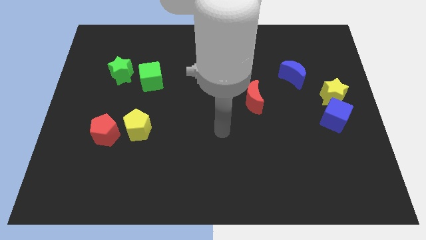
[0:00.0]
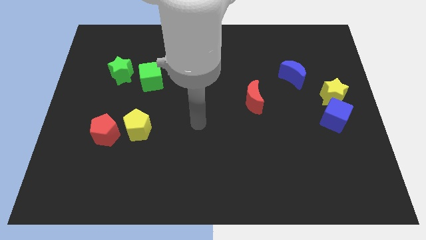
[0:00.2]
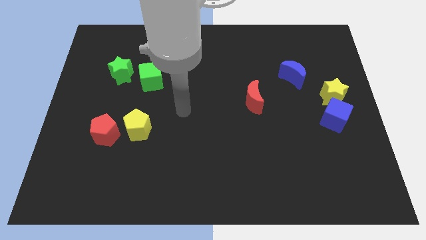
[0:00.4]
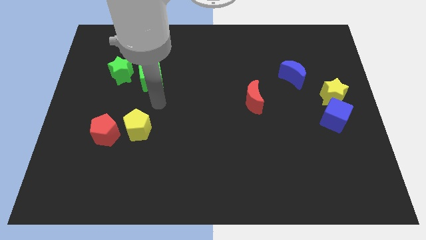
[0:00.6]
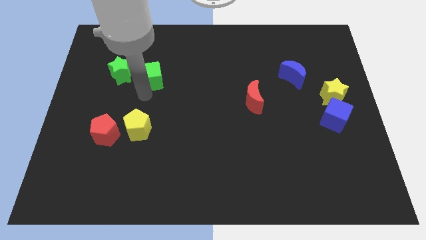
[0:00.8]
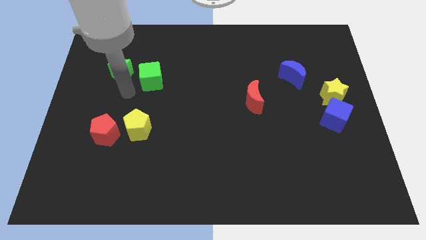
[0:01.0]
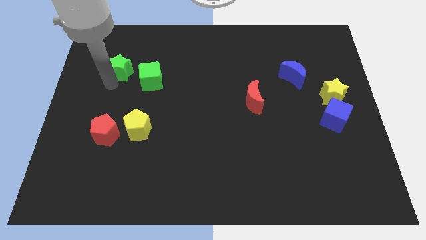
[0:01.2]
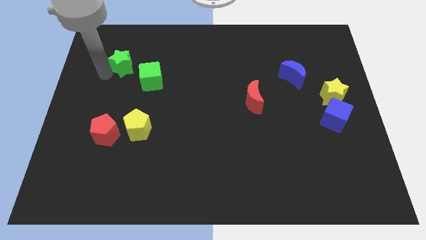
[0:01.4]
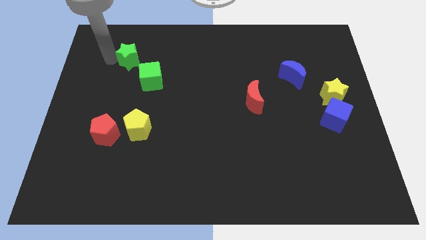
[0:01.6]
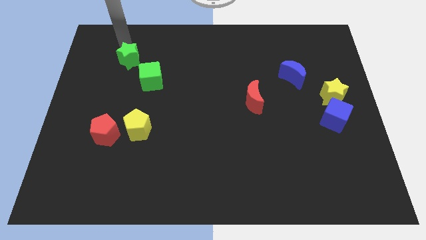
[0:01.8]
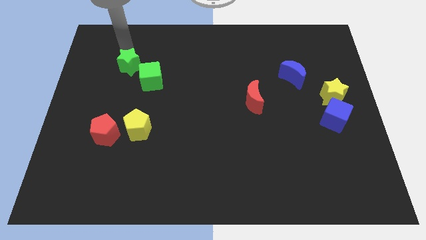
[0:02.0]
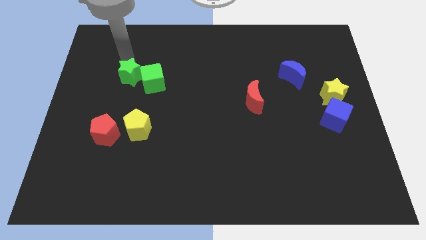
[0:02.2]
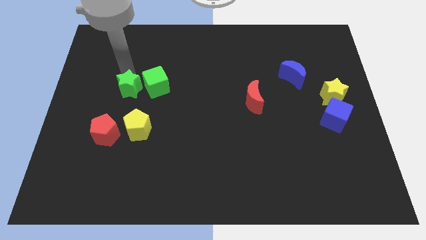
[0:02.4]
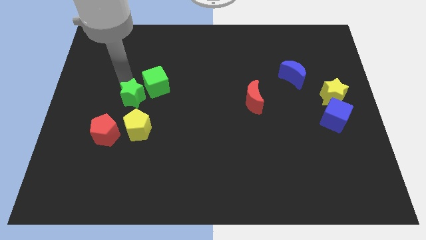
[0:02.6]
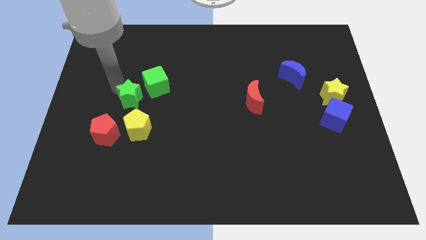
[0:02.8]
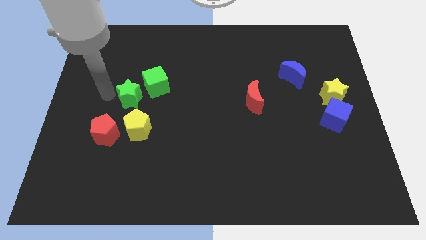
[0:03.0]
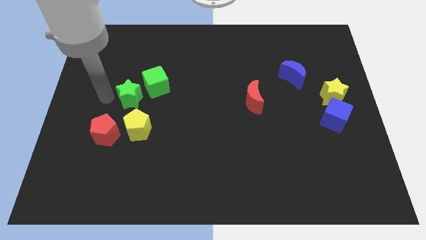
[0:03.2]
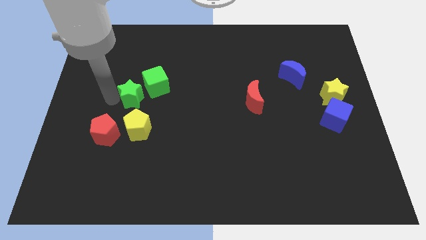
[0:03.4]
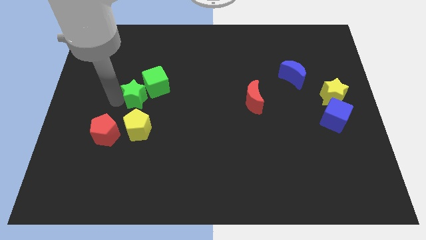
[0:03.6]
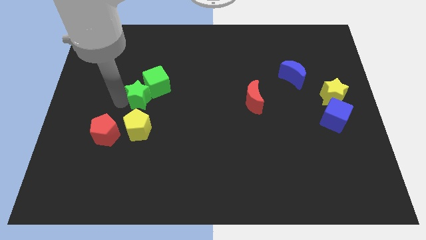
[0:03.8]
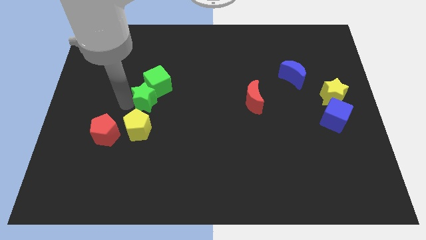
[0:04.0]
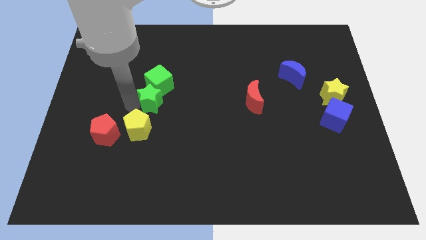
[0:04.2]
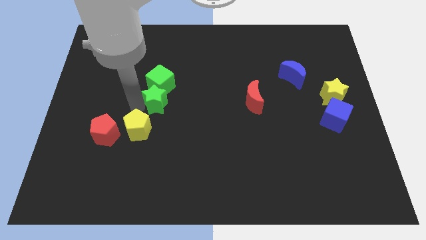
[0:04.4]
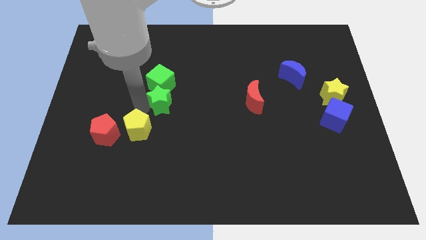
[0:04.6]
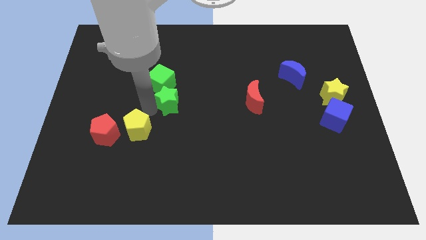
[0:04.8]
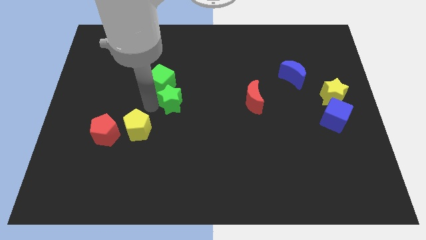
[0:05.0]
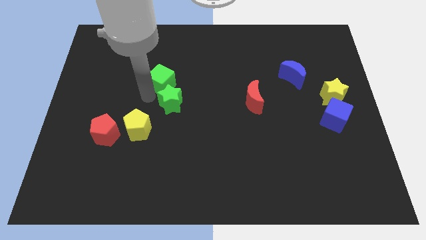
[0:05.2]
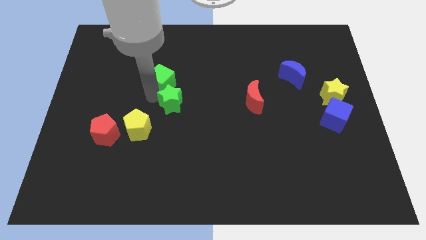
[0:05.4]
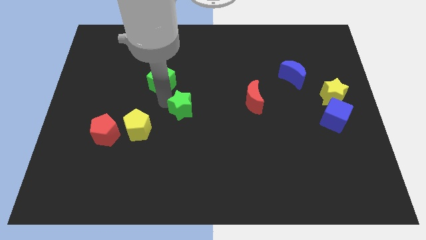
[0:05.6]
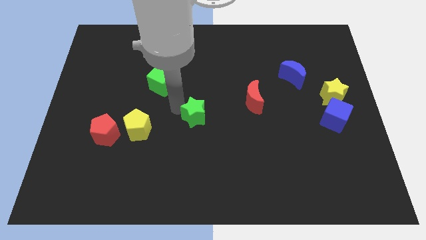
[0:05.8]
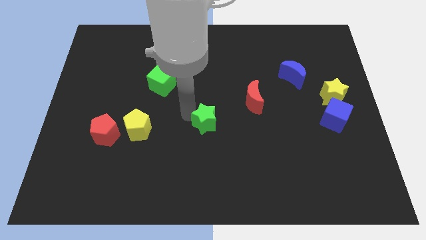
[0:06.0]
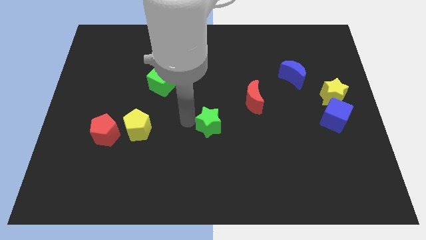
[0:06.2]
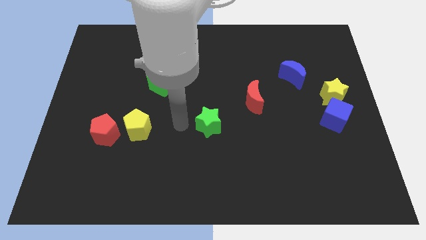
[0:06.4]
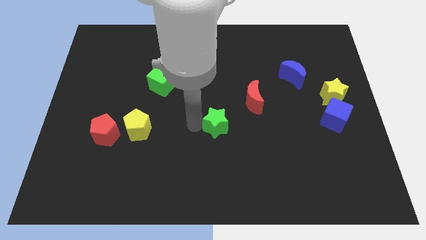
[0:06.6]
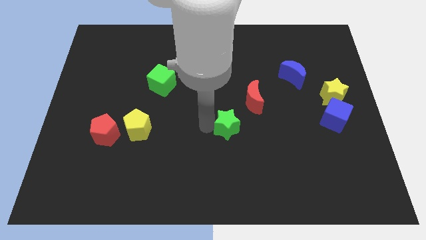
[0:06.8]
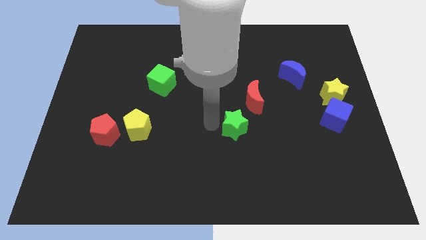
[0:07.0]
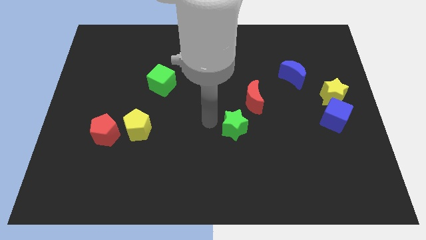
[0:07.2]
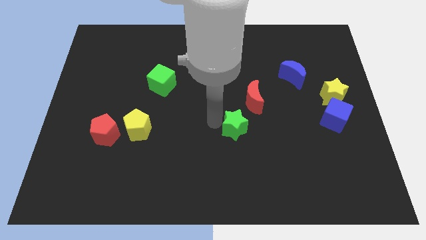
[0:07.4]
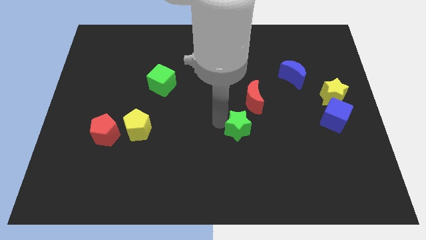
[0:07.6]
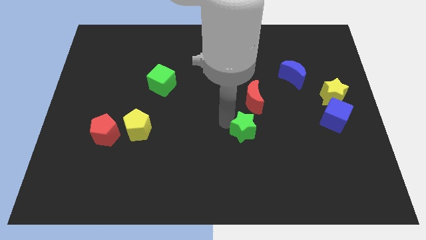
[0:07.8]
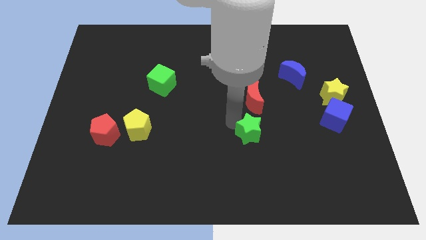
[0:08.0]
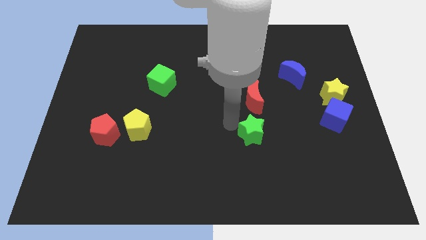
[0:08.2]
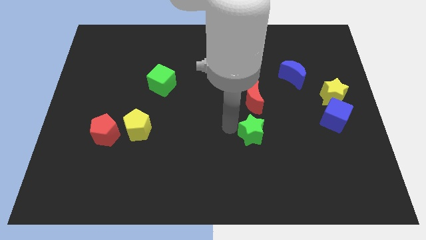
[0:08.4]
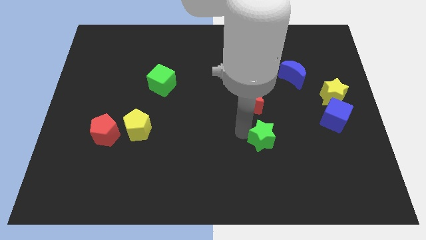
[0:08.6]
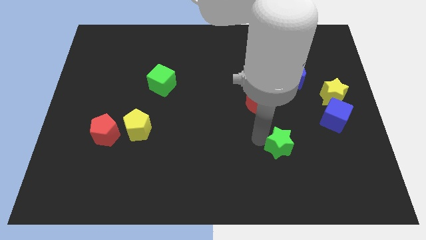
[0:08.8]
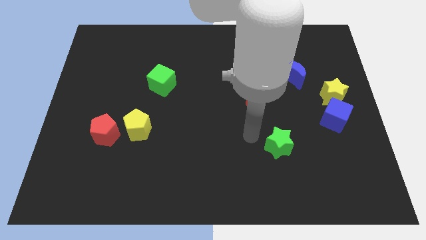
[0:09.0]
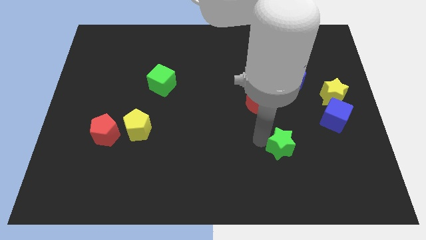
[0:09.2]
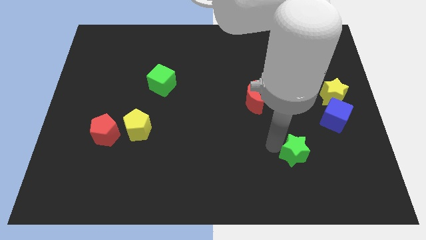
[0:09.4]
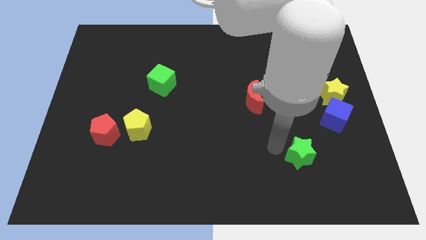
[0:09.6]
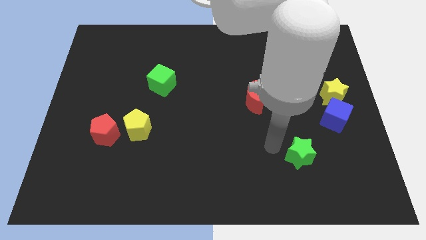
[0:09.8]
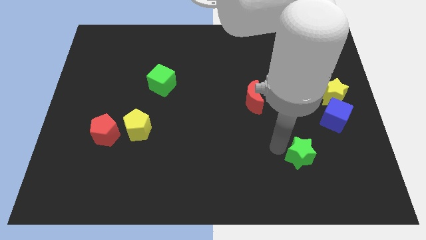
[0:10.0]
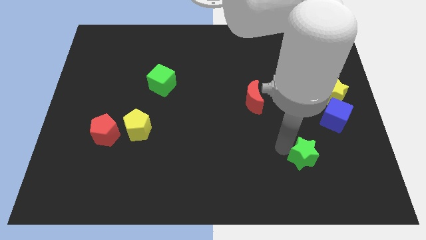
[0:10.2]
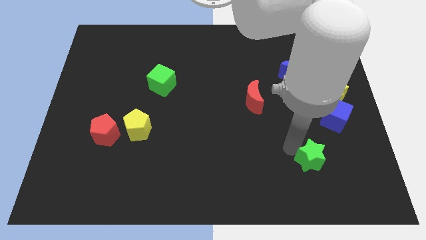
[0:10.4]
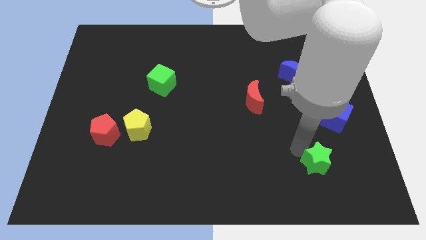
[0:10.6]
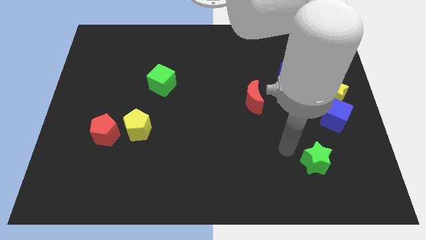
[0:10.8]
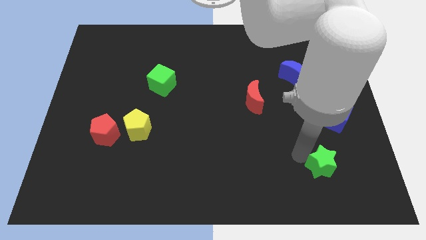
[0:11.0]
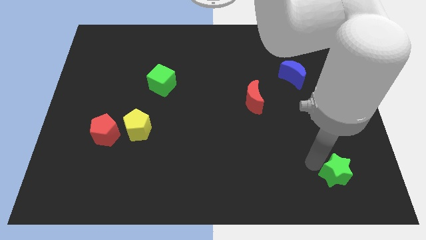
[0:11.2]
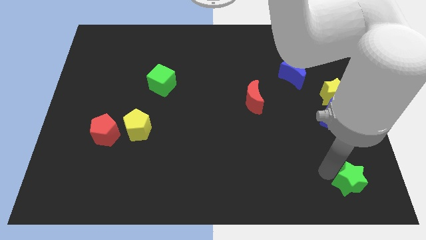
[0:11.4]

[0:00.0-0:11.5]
move the green star to the lower right corner
